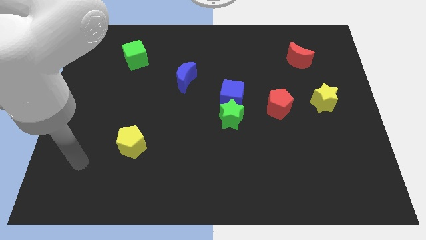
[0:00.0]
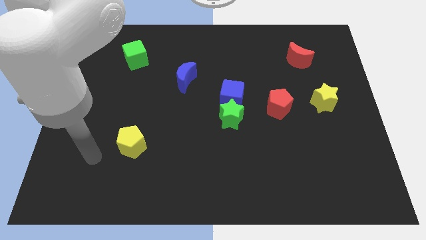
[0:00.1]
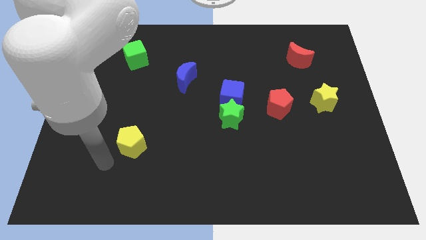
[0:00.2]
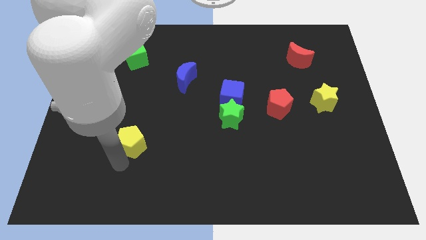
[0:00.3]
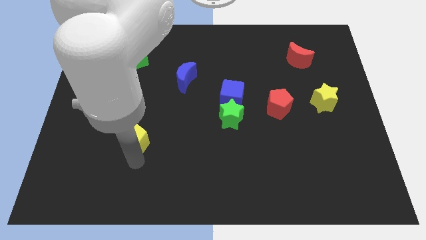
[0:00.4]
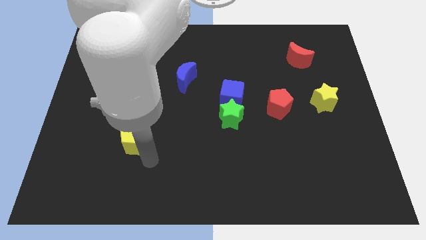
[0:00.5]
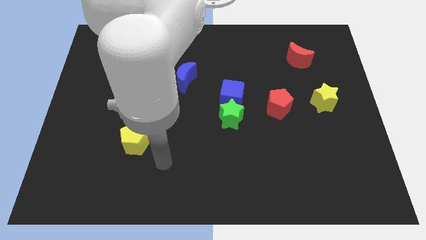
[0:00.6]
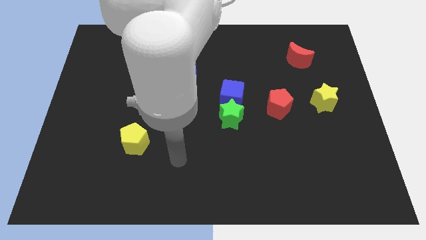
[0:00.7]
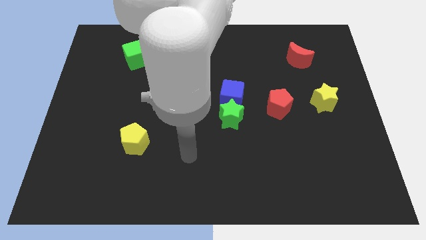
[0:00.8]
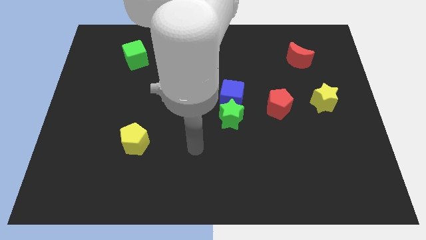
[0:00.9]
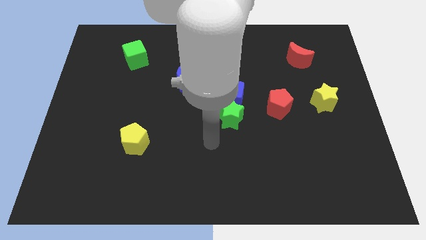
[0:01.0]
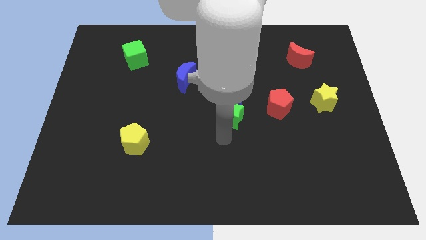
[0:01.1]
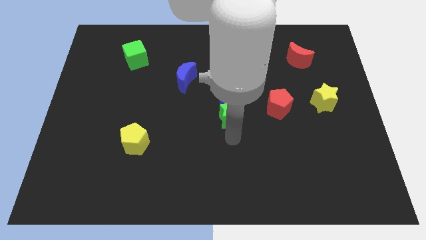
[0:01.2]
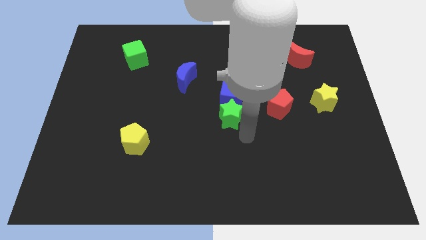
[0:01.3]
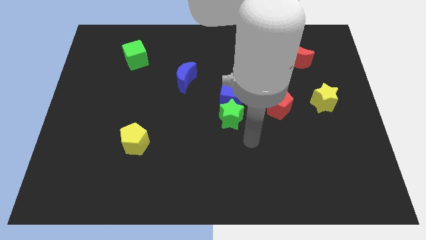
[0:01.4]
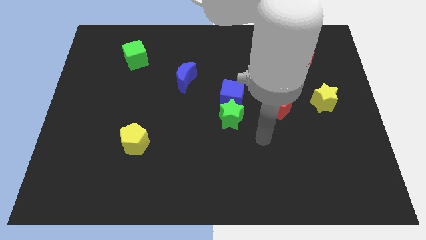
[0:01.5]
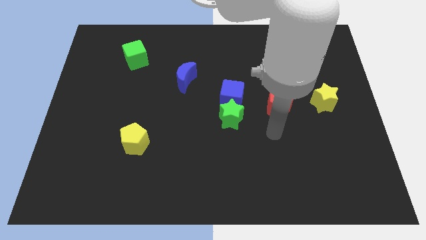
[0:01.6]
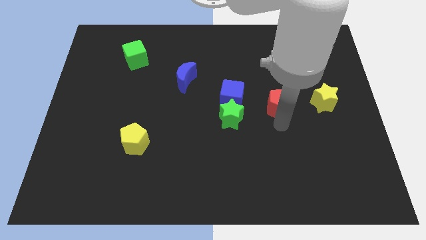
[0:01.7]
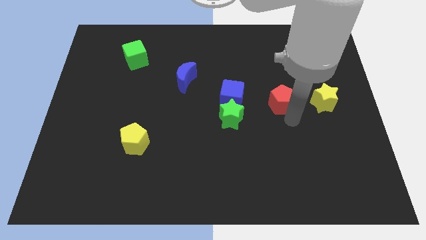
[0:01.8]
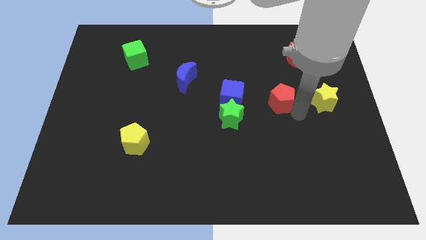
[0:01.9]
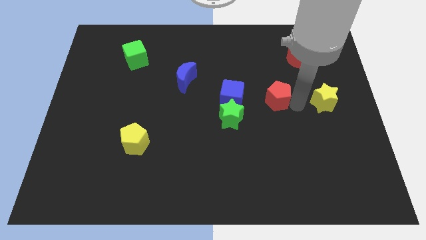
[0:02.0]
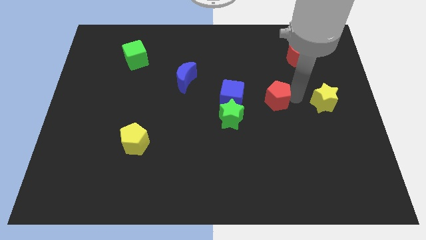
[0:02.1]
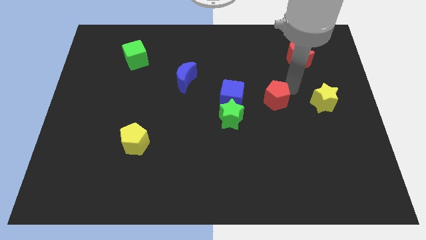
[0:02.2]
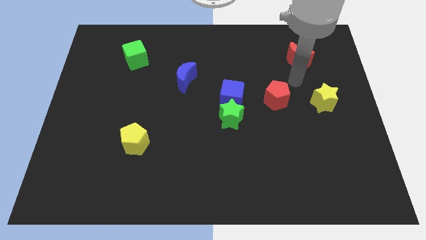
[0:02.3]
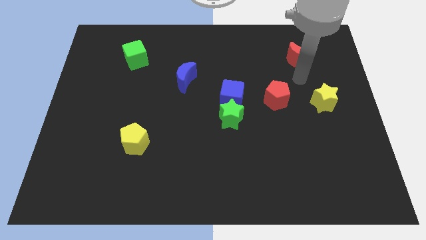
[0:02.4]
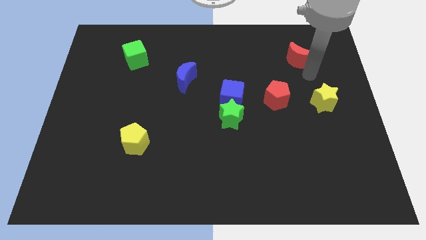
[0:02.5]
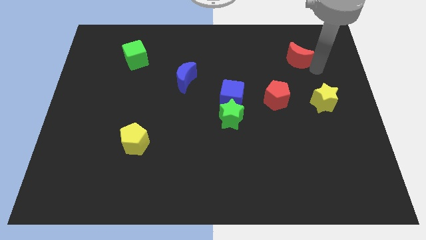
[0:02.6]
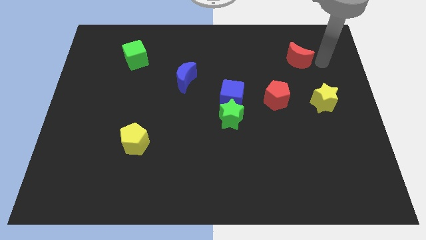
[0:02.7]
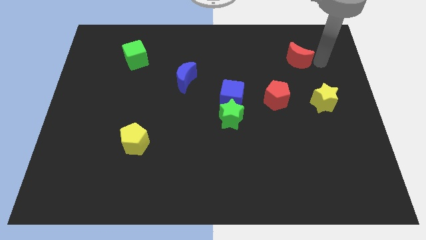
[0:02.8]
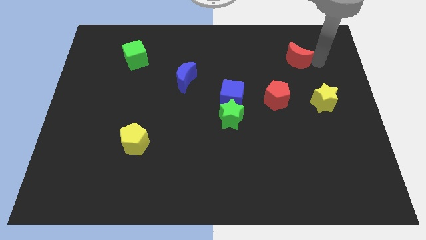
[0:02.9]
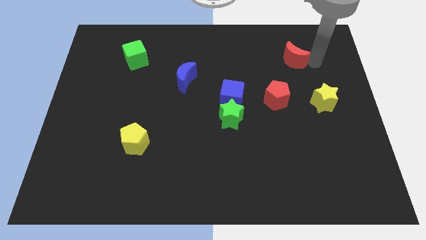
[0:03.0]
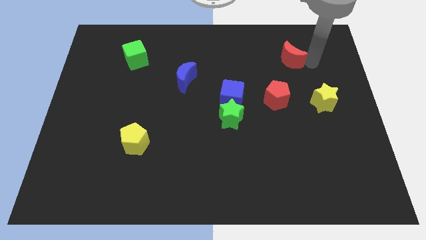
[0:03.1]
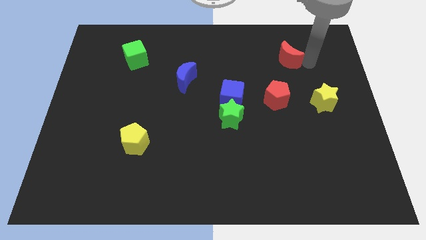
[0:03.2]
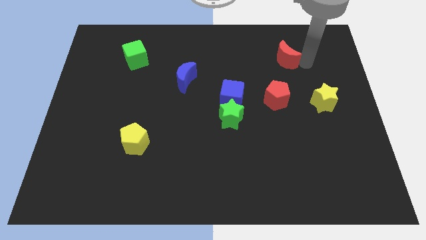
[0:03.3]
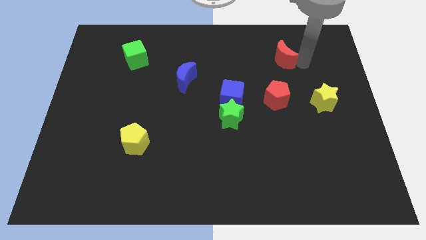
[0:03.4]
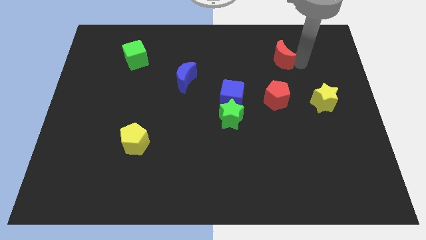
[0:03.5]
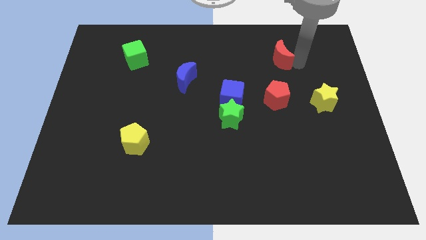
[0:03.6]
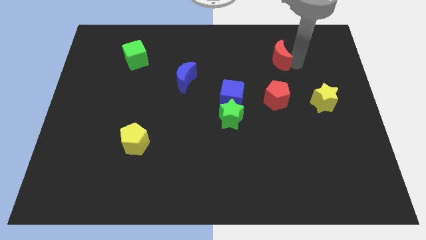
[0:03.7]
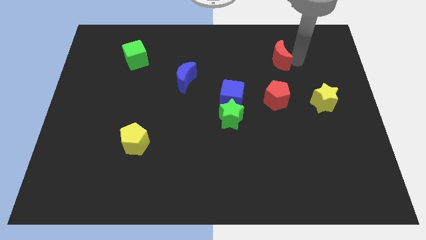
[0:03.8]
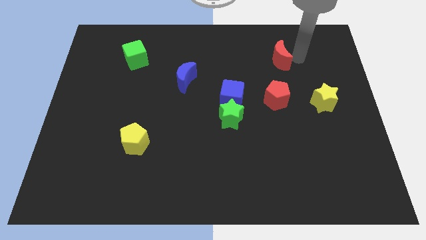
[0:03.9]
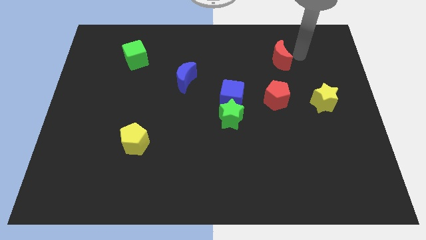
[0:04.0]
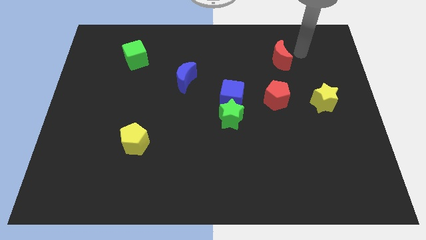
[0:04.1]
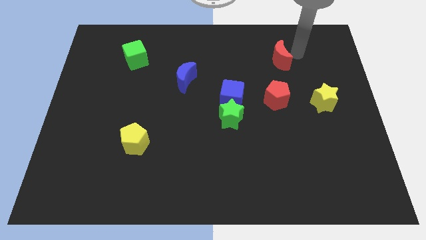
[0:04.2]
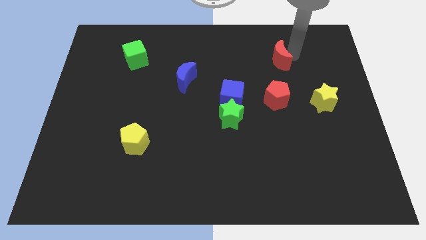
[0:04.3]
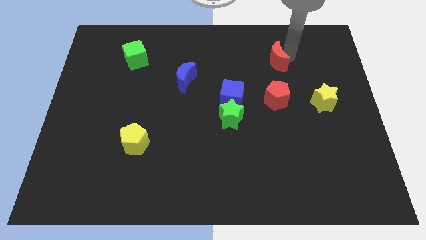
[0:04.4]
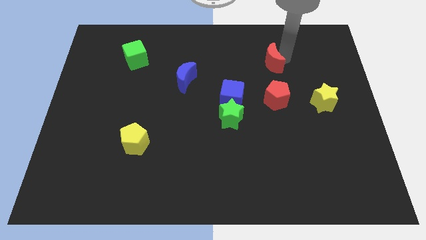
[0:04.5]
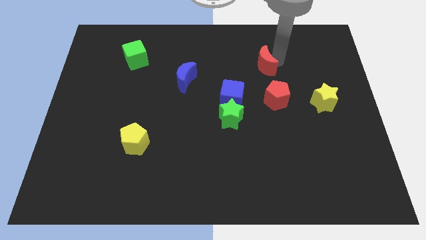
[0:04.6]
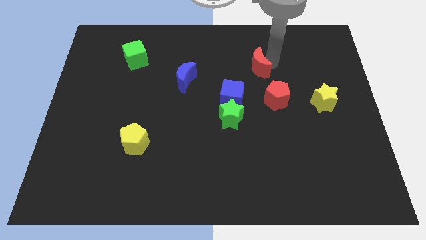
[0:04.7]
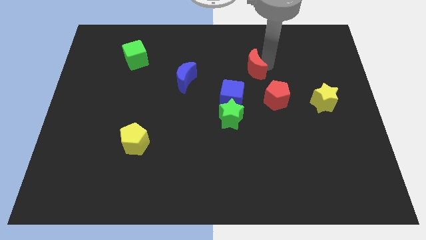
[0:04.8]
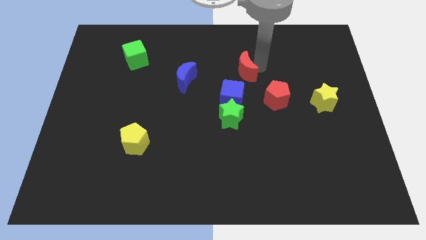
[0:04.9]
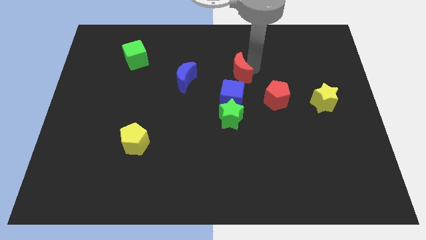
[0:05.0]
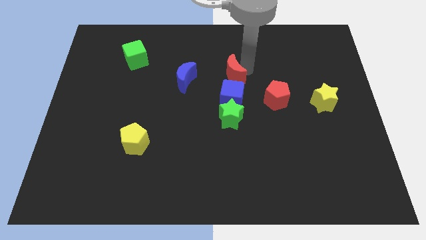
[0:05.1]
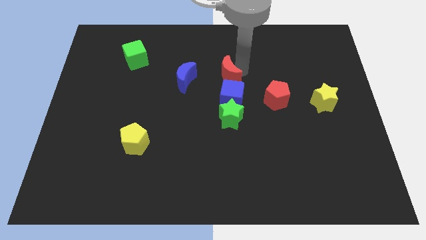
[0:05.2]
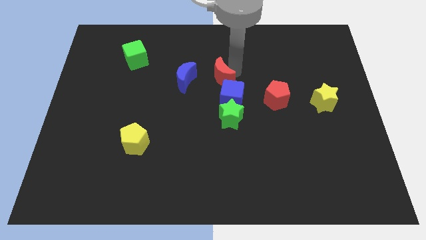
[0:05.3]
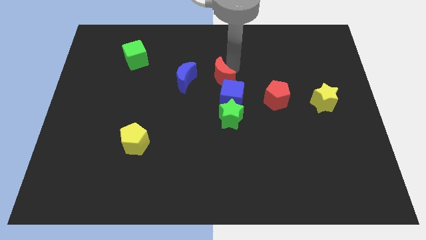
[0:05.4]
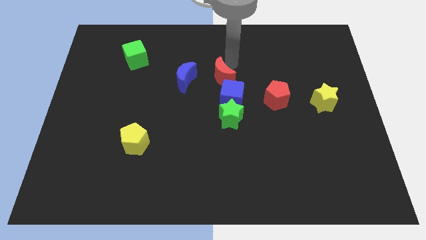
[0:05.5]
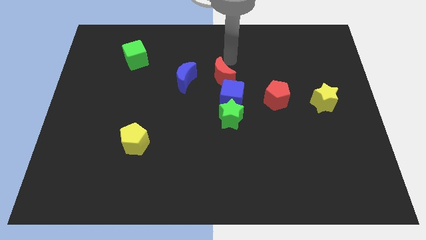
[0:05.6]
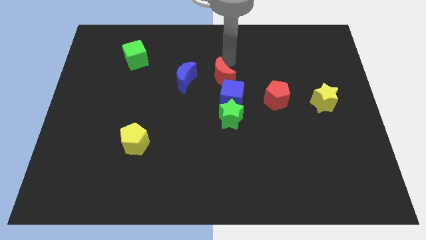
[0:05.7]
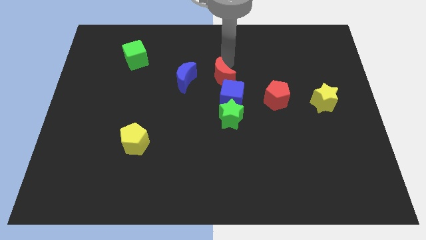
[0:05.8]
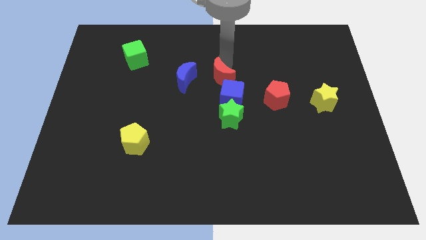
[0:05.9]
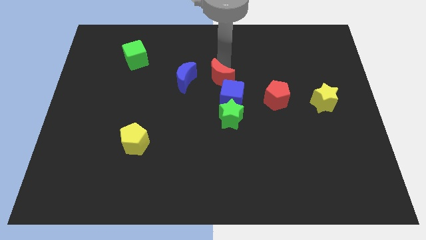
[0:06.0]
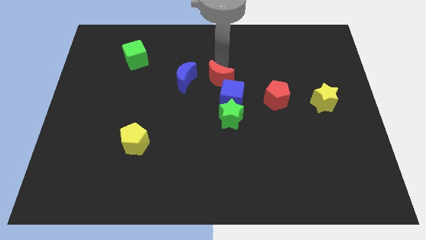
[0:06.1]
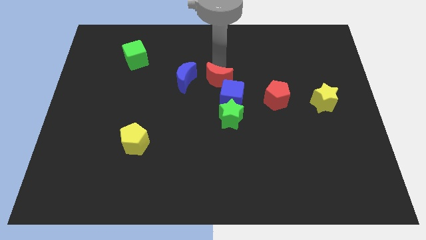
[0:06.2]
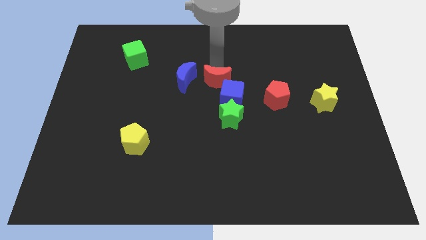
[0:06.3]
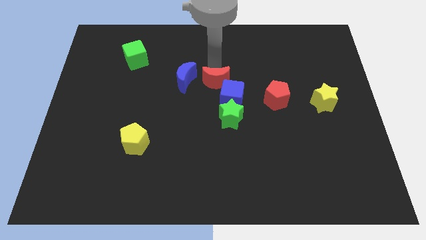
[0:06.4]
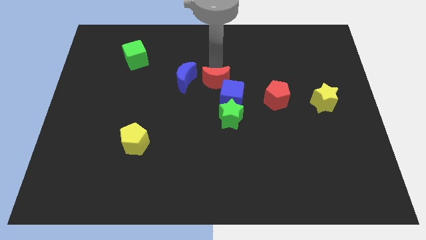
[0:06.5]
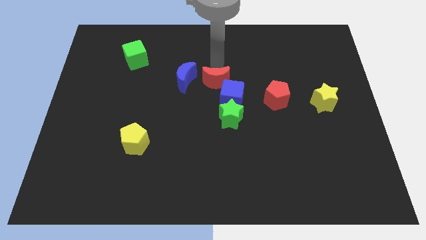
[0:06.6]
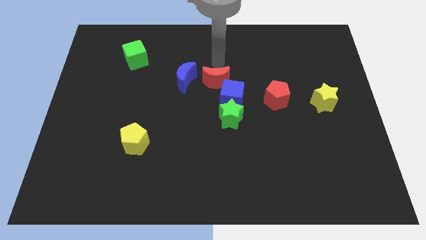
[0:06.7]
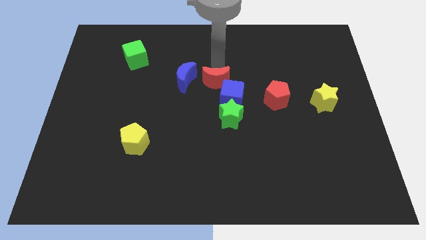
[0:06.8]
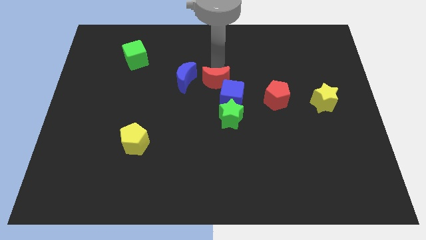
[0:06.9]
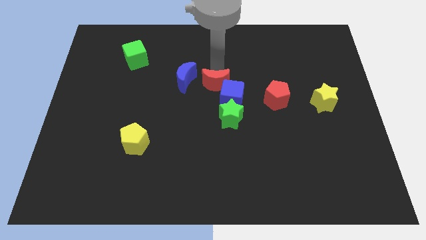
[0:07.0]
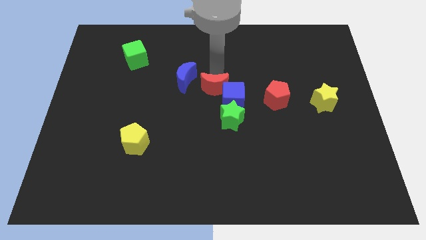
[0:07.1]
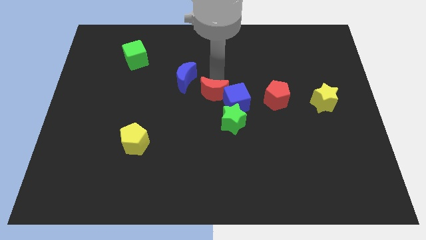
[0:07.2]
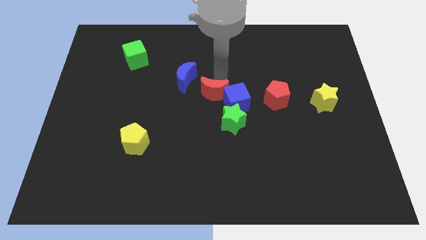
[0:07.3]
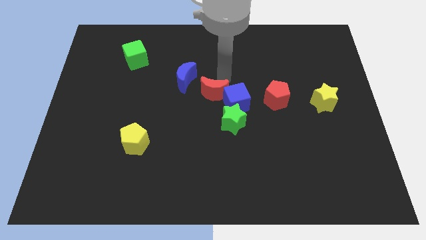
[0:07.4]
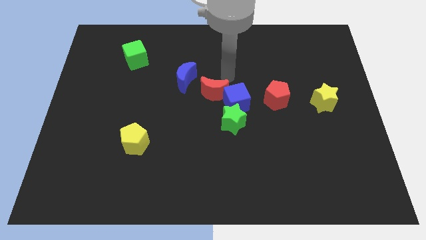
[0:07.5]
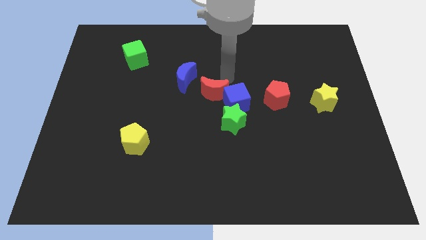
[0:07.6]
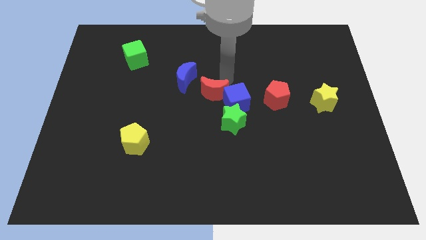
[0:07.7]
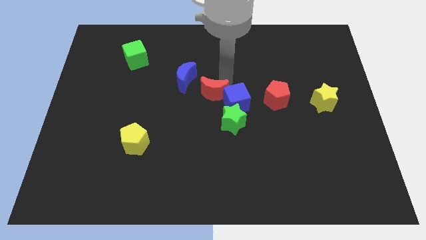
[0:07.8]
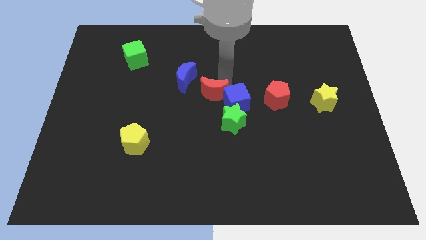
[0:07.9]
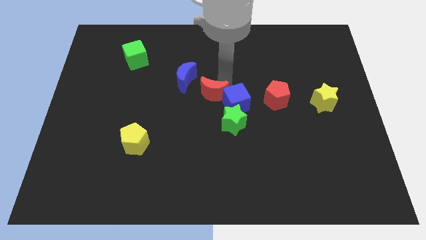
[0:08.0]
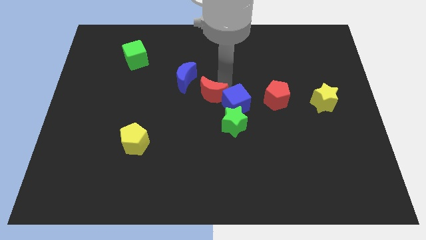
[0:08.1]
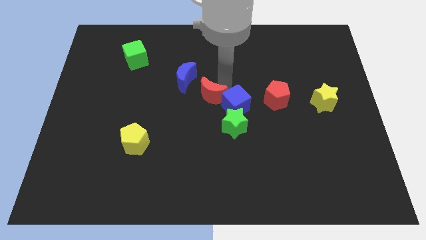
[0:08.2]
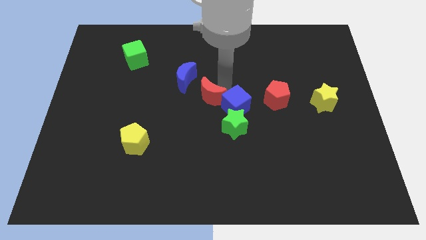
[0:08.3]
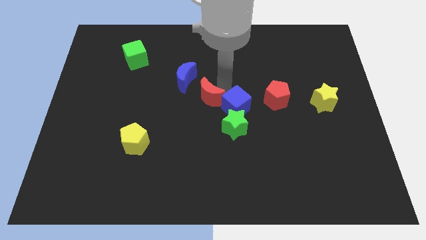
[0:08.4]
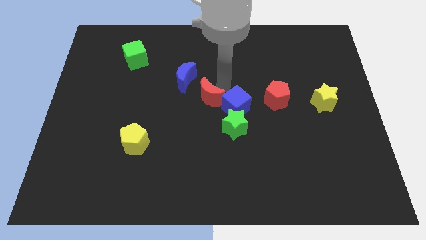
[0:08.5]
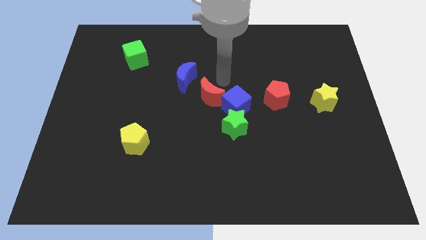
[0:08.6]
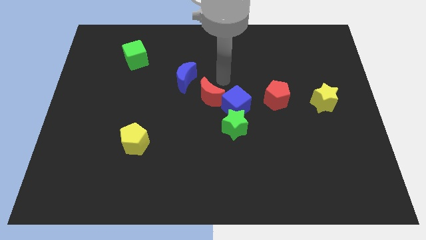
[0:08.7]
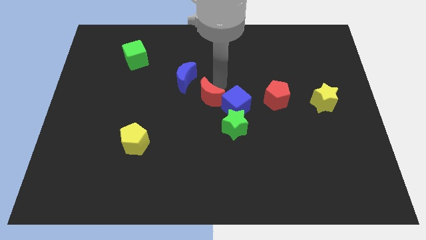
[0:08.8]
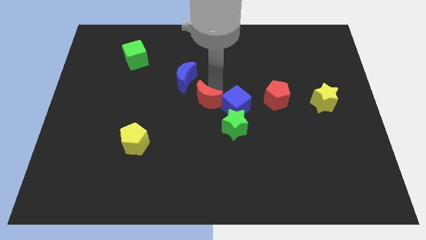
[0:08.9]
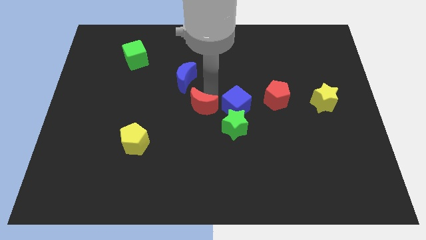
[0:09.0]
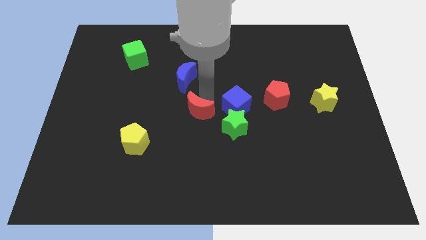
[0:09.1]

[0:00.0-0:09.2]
slide the red moon to the left side of the green star
